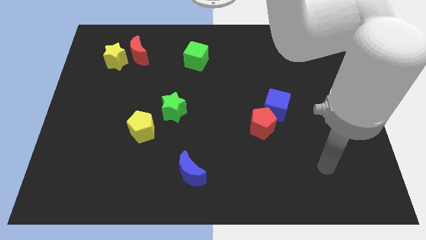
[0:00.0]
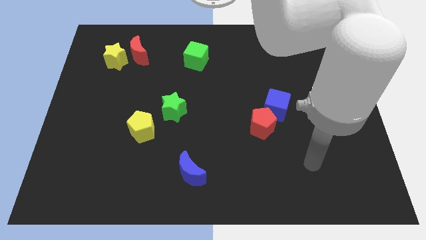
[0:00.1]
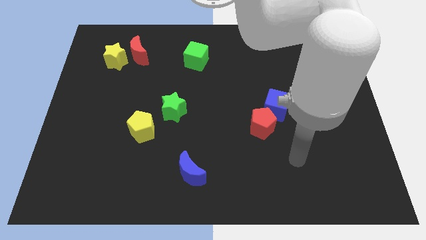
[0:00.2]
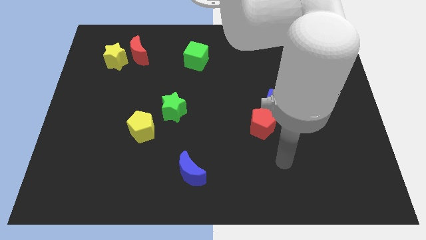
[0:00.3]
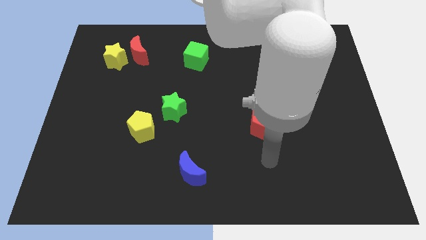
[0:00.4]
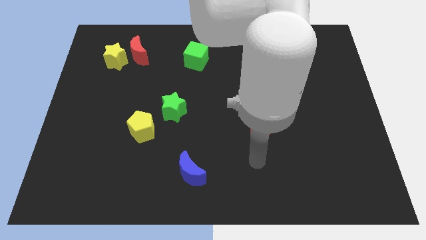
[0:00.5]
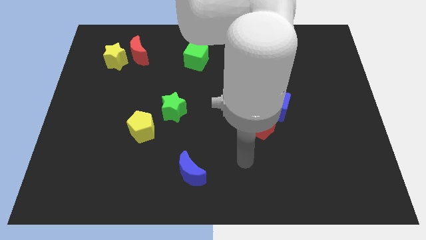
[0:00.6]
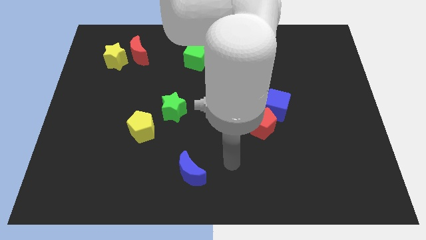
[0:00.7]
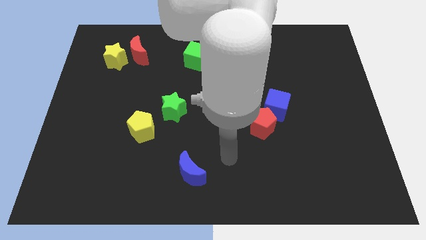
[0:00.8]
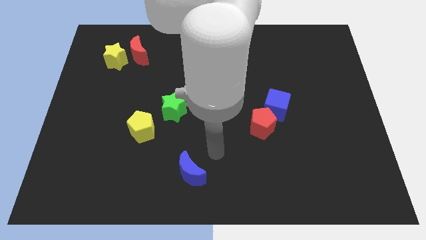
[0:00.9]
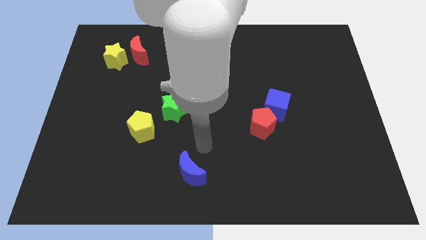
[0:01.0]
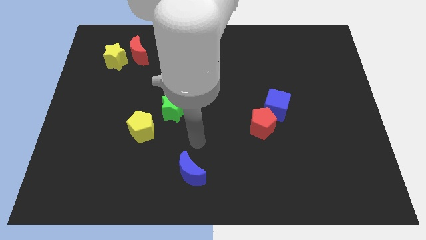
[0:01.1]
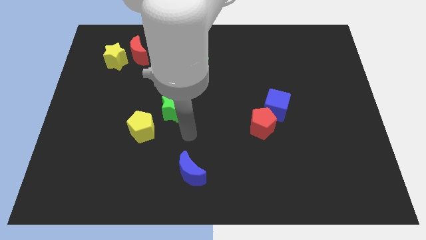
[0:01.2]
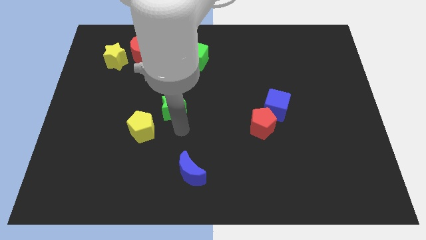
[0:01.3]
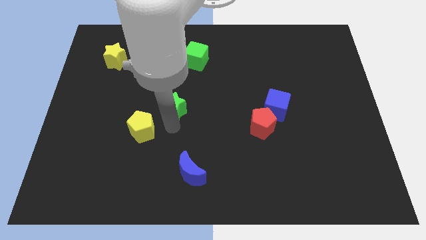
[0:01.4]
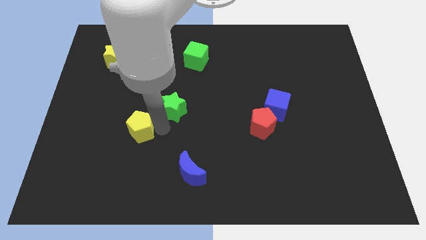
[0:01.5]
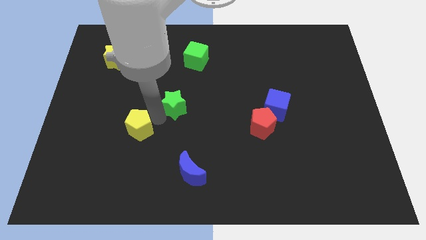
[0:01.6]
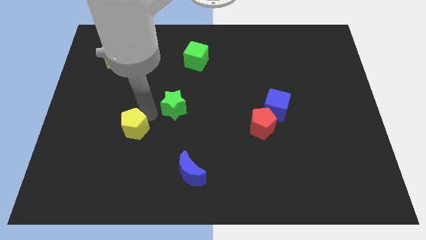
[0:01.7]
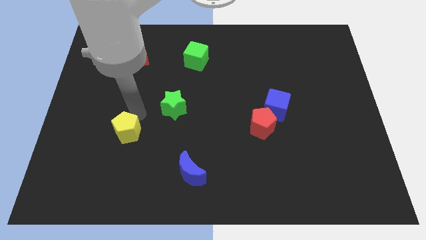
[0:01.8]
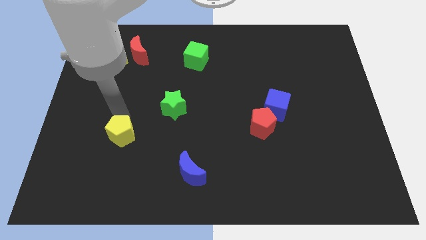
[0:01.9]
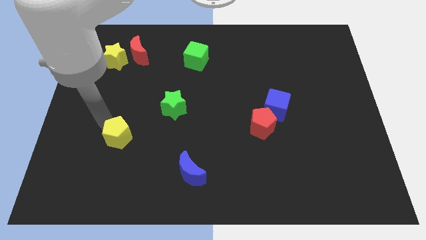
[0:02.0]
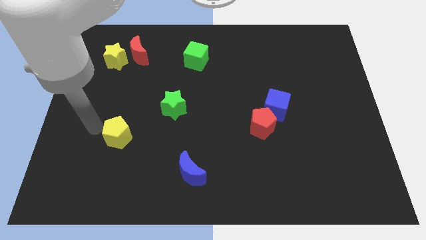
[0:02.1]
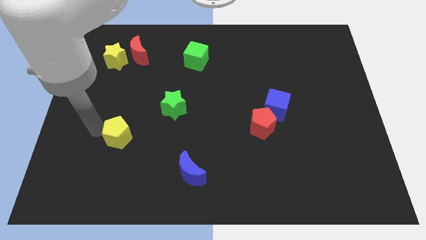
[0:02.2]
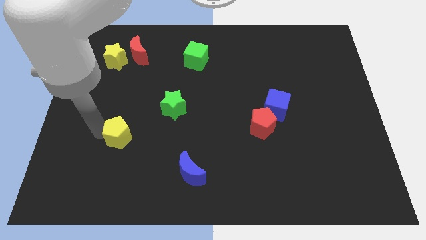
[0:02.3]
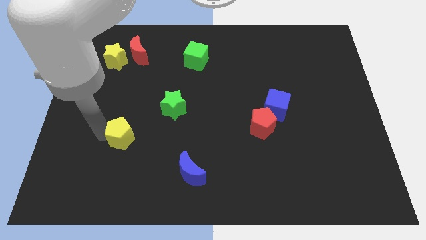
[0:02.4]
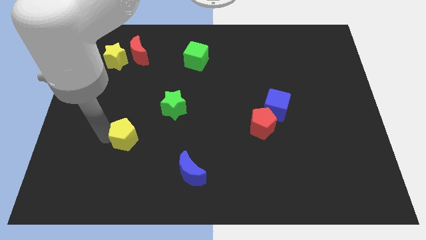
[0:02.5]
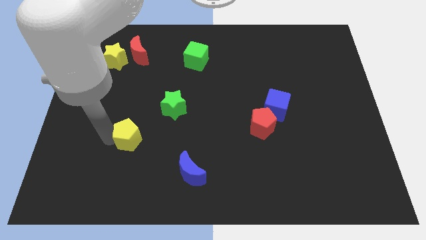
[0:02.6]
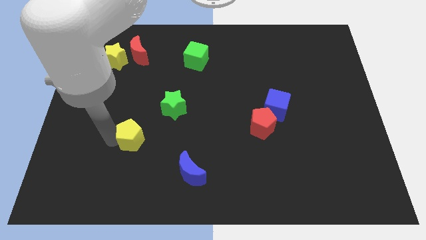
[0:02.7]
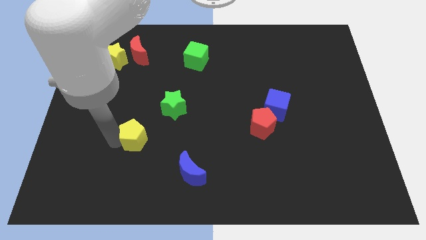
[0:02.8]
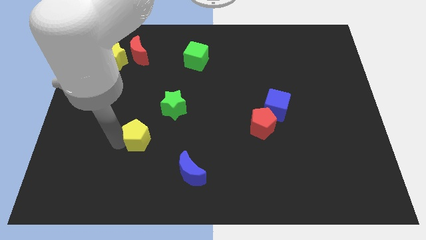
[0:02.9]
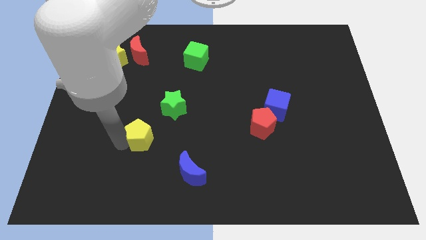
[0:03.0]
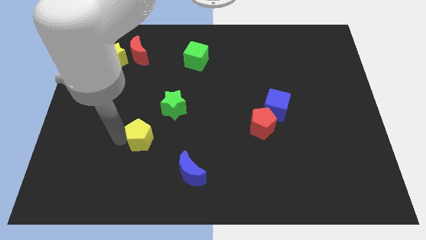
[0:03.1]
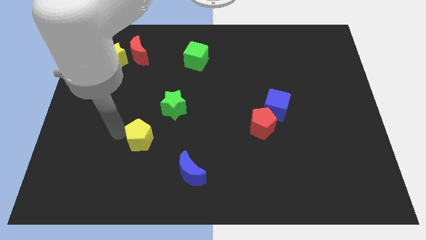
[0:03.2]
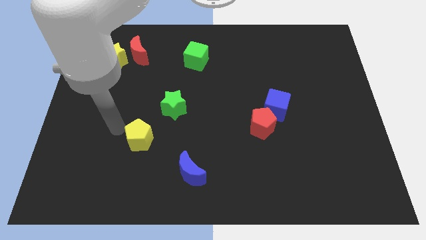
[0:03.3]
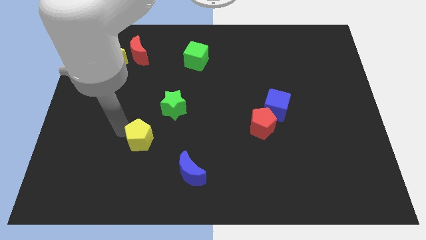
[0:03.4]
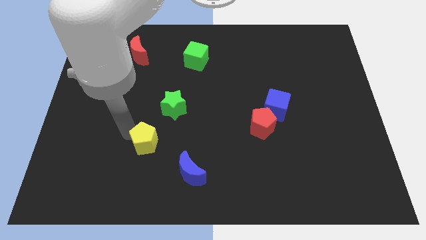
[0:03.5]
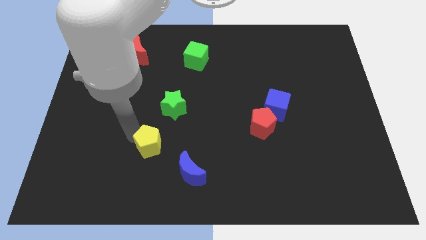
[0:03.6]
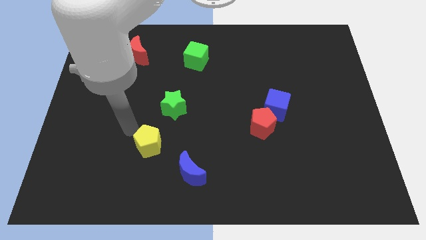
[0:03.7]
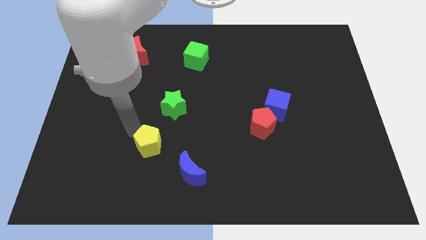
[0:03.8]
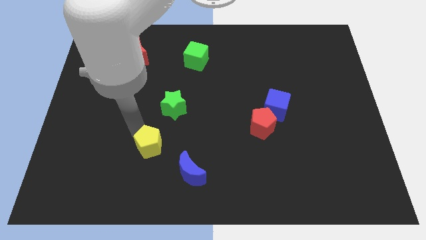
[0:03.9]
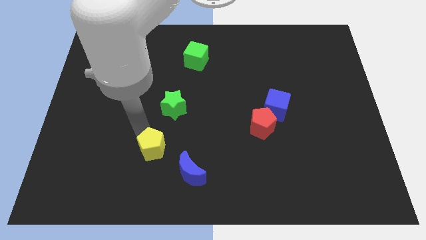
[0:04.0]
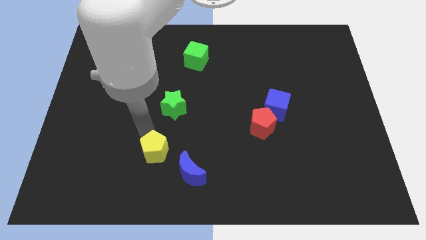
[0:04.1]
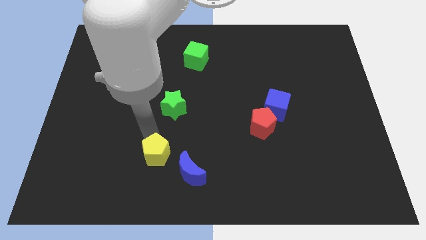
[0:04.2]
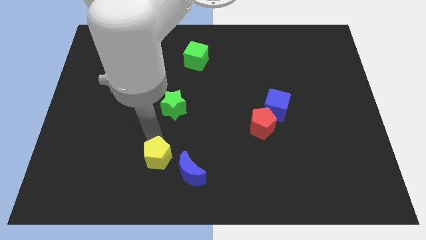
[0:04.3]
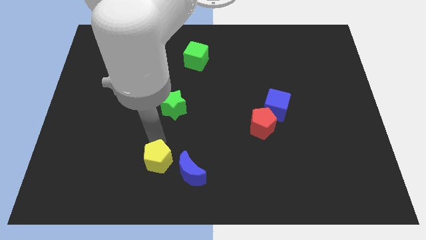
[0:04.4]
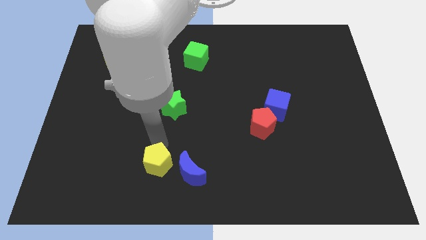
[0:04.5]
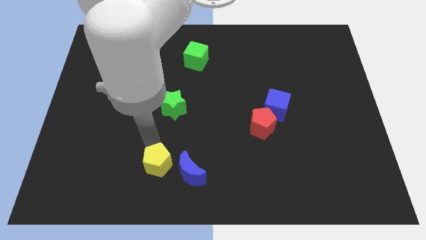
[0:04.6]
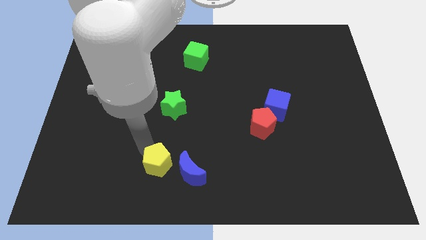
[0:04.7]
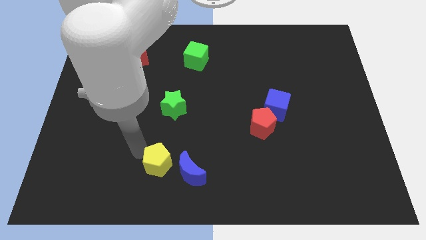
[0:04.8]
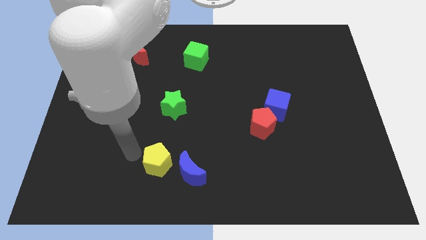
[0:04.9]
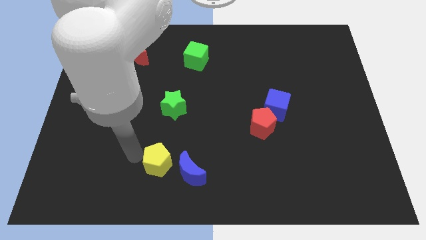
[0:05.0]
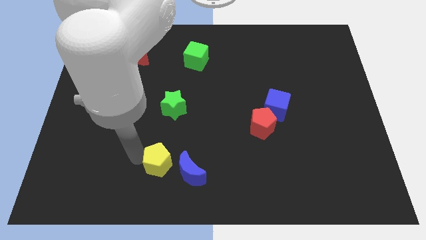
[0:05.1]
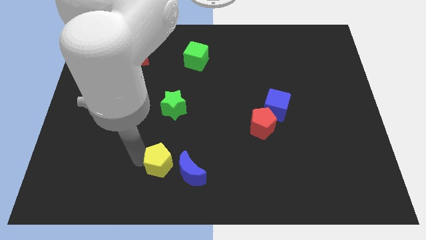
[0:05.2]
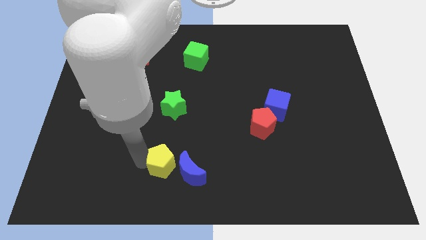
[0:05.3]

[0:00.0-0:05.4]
put the yellow pentagon towards the blue moon

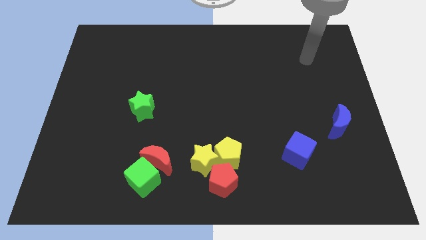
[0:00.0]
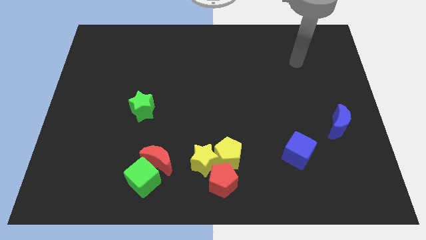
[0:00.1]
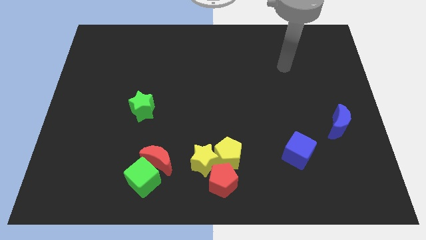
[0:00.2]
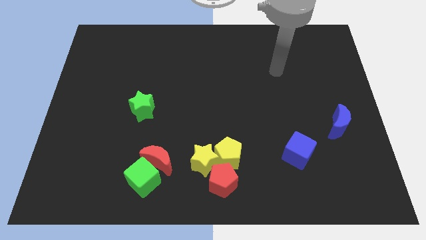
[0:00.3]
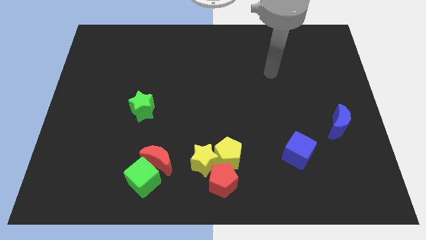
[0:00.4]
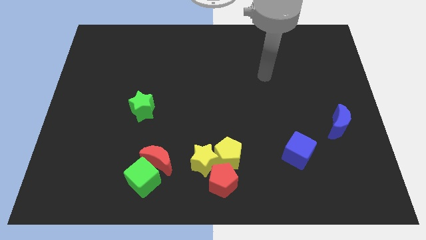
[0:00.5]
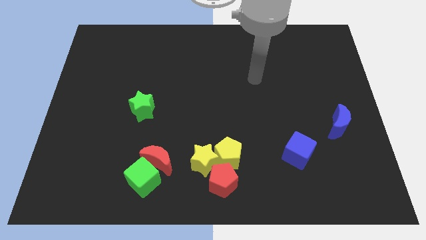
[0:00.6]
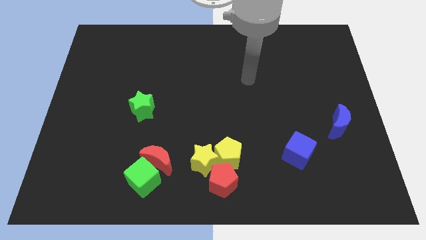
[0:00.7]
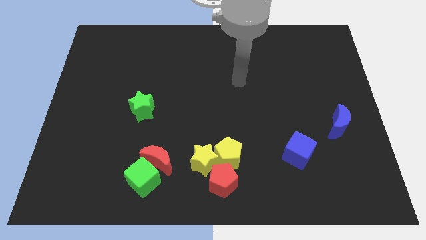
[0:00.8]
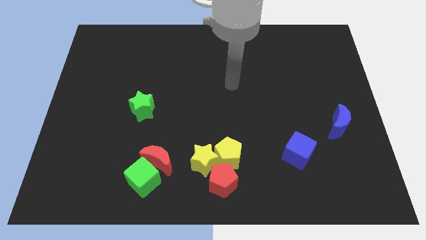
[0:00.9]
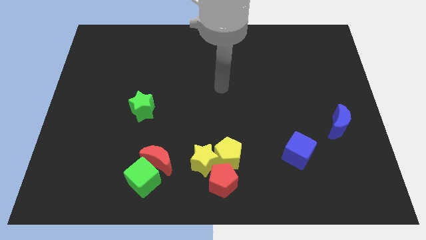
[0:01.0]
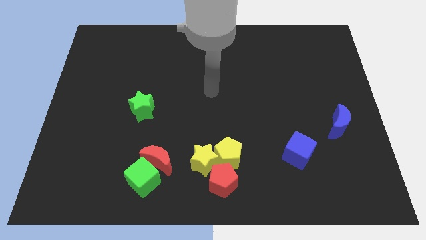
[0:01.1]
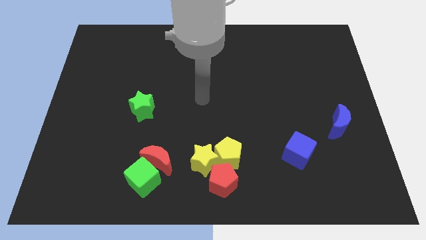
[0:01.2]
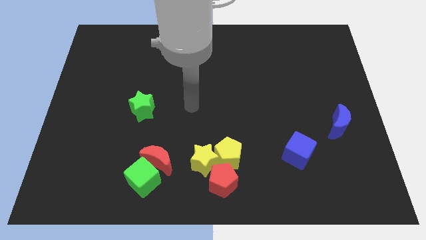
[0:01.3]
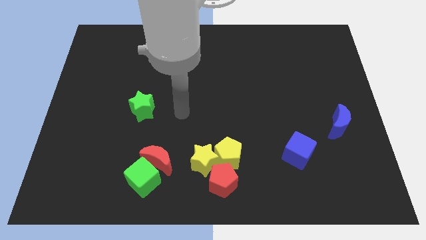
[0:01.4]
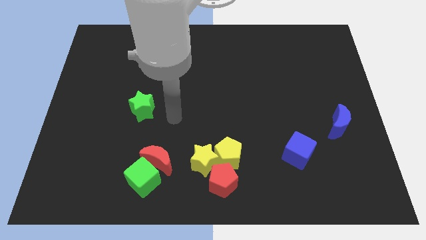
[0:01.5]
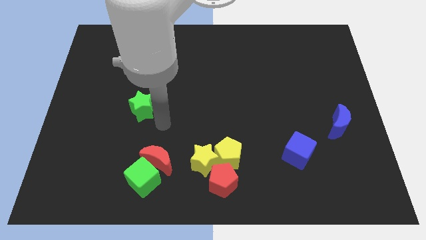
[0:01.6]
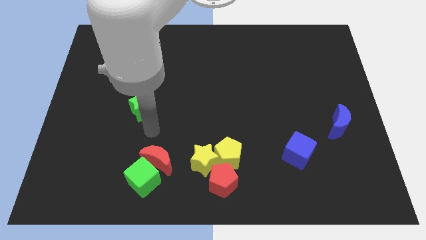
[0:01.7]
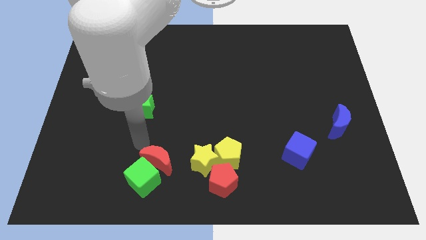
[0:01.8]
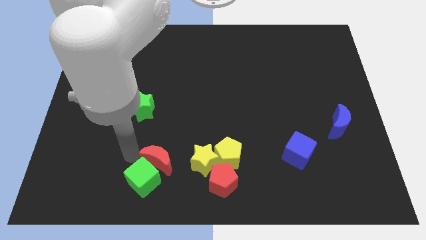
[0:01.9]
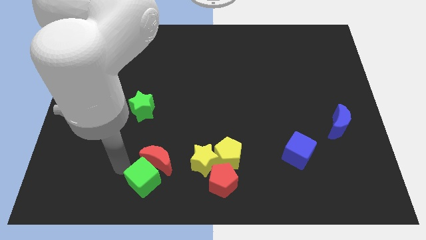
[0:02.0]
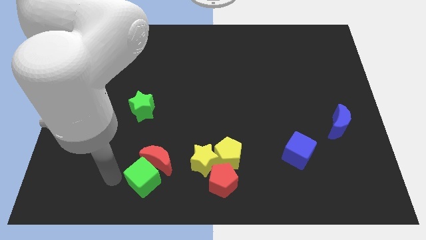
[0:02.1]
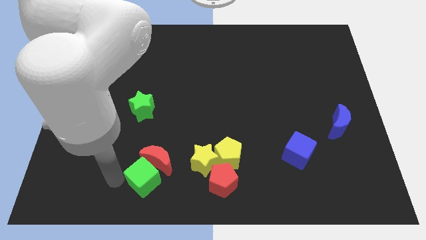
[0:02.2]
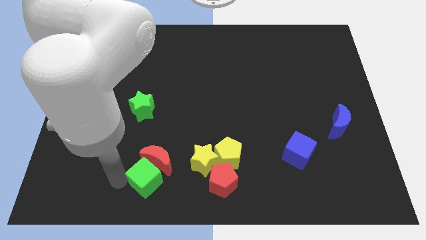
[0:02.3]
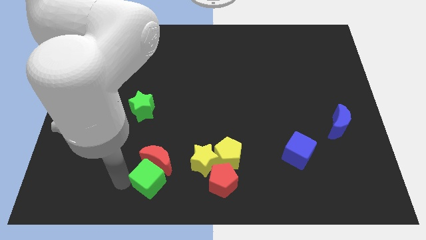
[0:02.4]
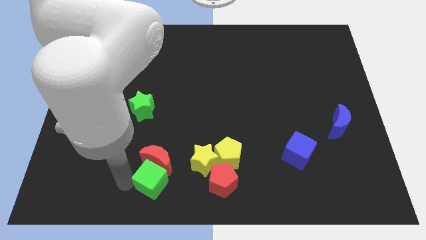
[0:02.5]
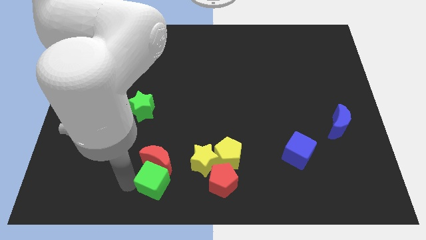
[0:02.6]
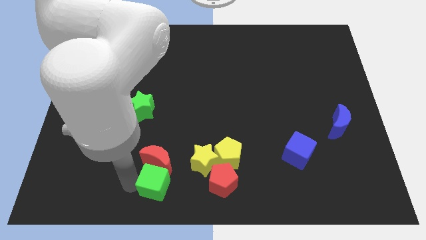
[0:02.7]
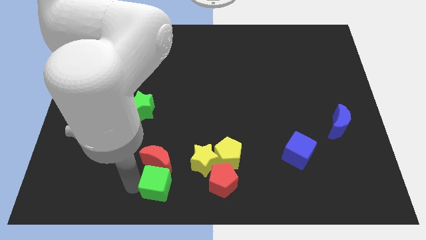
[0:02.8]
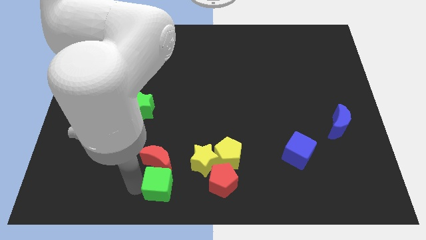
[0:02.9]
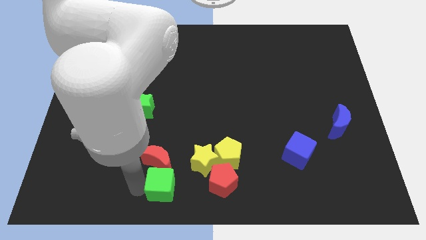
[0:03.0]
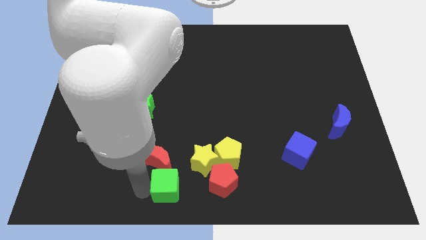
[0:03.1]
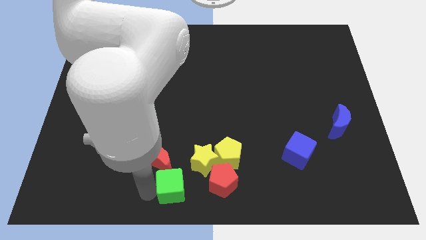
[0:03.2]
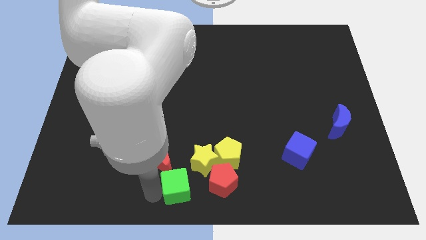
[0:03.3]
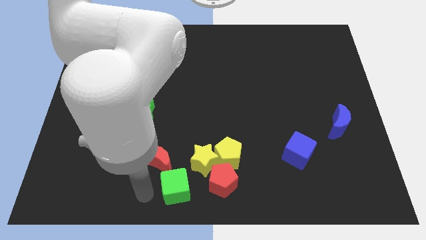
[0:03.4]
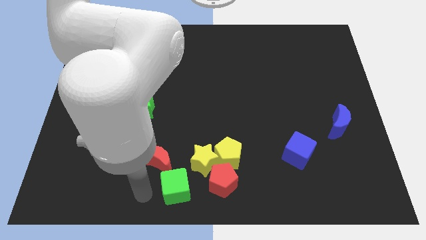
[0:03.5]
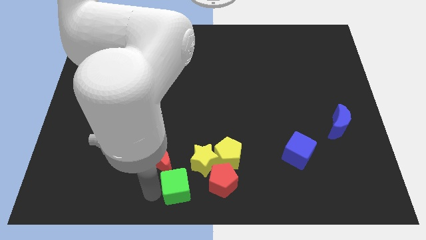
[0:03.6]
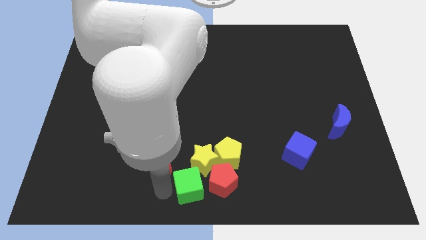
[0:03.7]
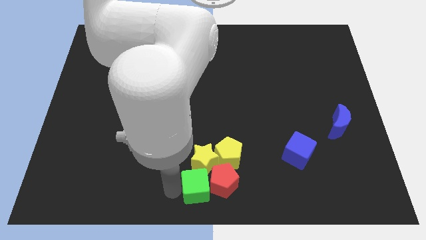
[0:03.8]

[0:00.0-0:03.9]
move the green cube close to the red pentagon
